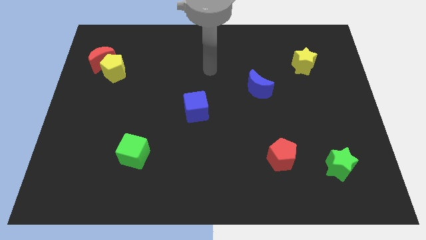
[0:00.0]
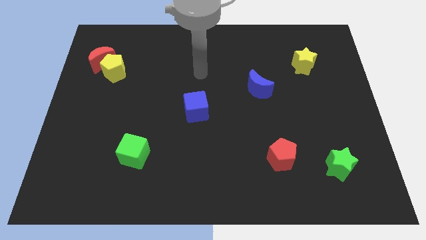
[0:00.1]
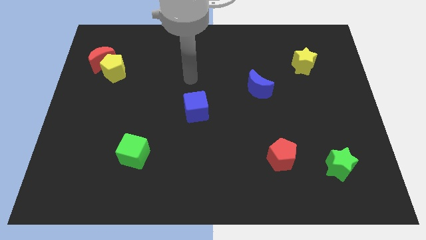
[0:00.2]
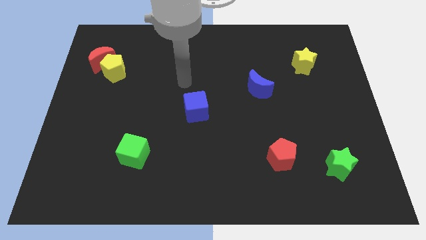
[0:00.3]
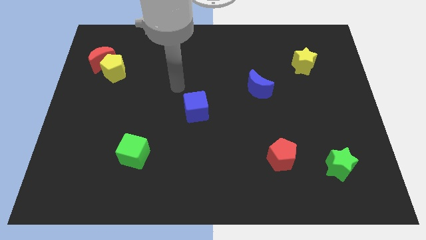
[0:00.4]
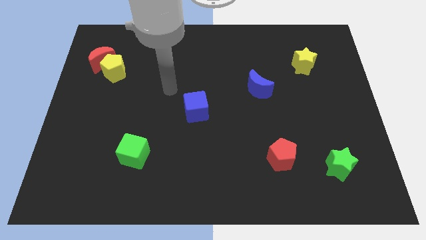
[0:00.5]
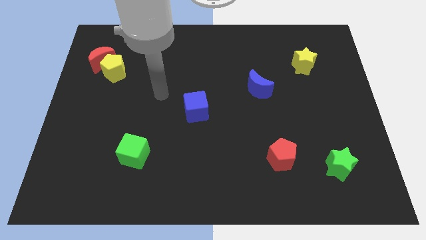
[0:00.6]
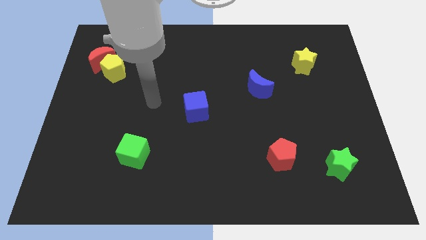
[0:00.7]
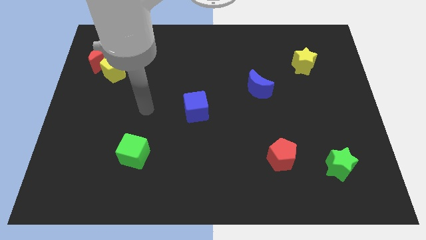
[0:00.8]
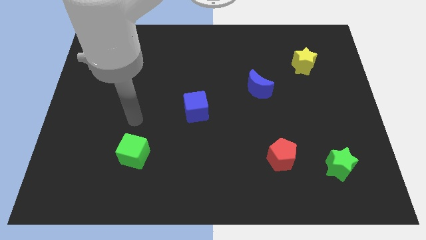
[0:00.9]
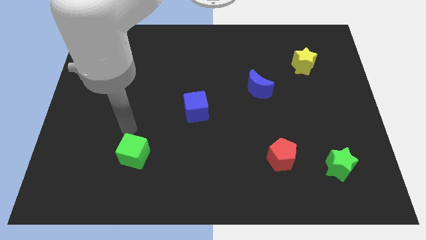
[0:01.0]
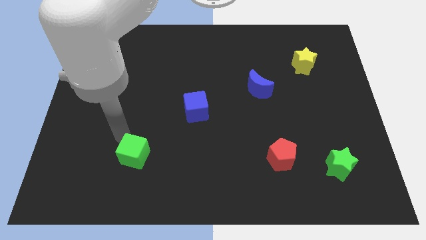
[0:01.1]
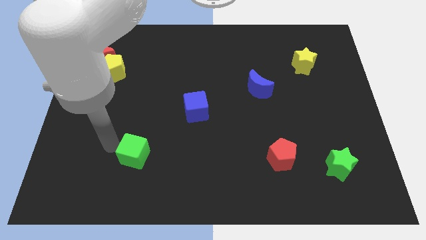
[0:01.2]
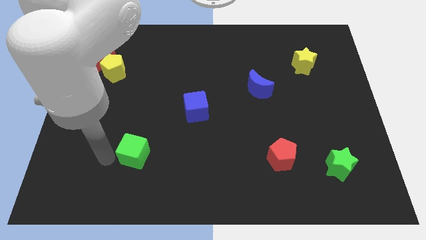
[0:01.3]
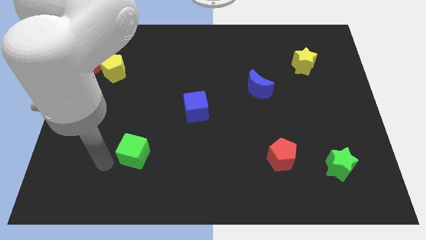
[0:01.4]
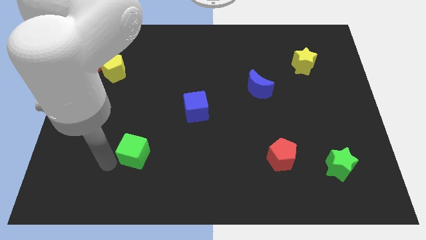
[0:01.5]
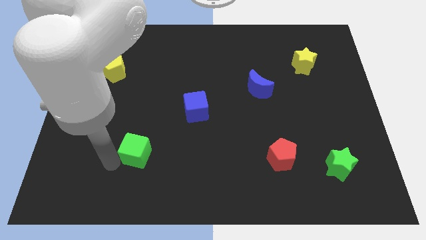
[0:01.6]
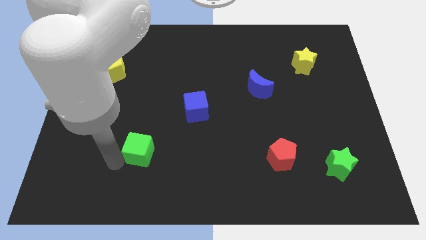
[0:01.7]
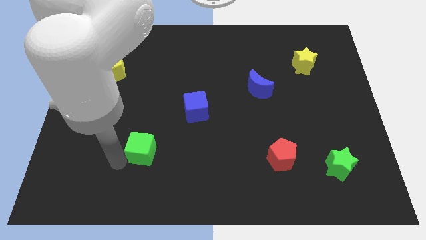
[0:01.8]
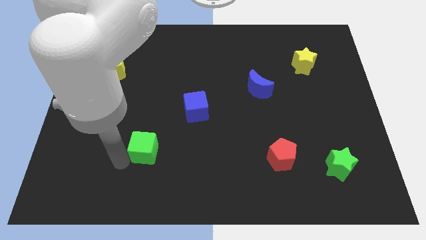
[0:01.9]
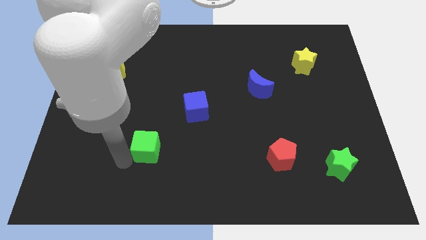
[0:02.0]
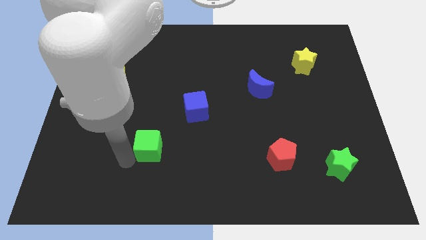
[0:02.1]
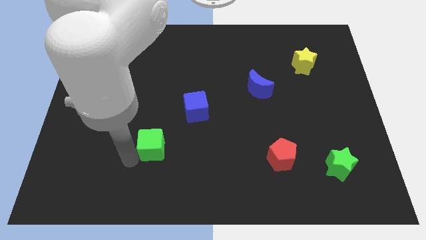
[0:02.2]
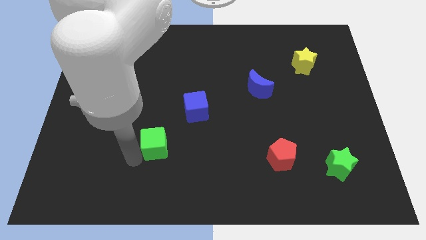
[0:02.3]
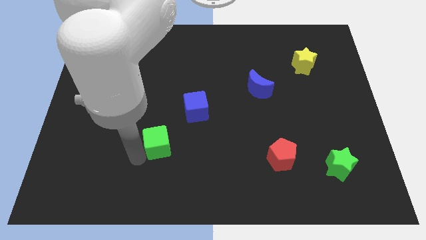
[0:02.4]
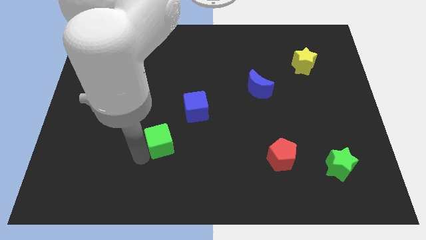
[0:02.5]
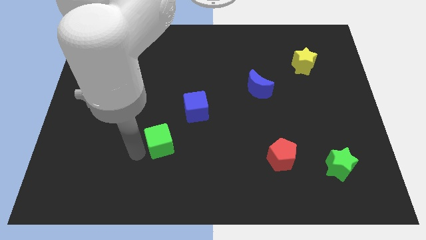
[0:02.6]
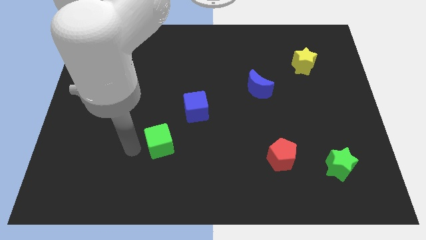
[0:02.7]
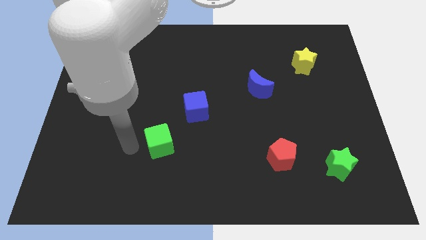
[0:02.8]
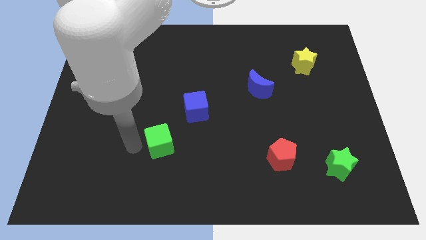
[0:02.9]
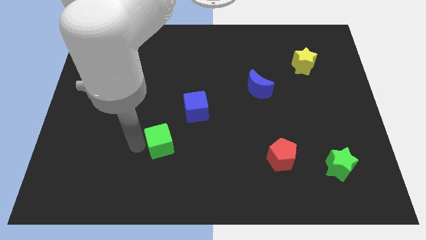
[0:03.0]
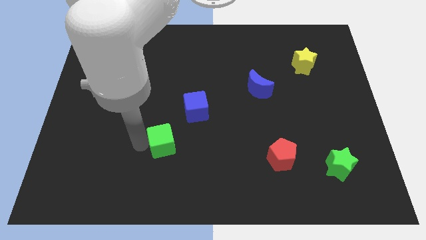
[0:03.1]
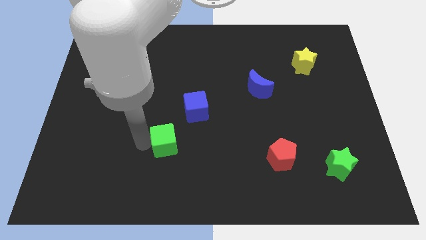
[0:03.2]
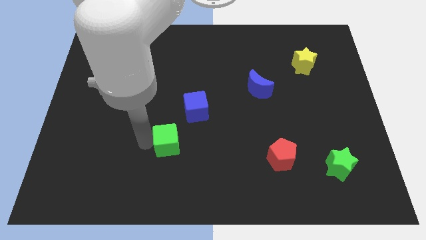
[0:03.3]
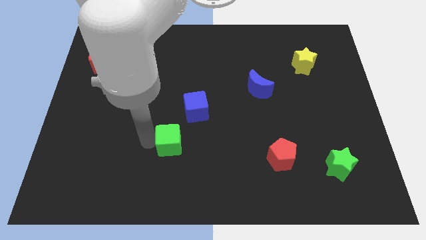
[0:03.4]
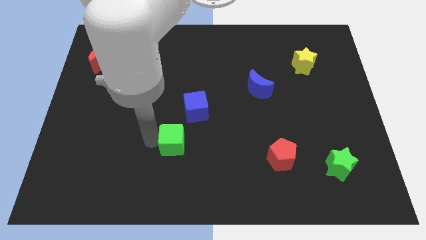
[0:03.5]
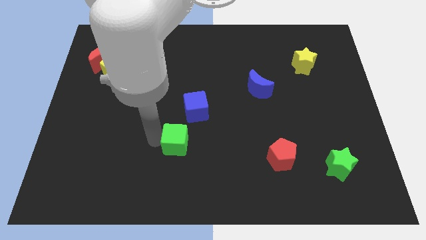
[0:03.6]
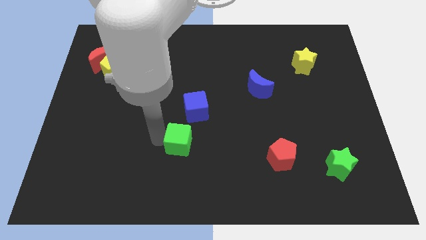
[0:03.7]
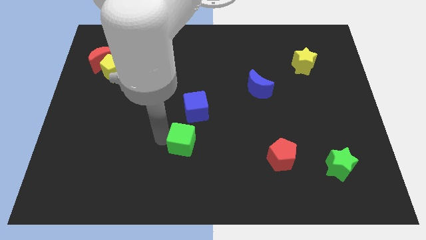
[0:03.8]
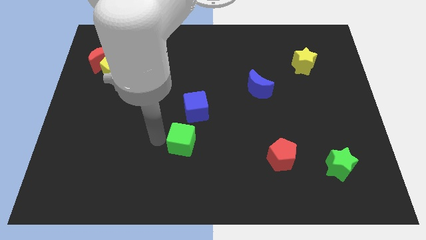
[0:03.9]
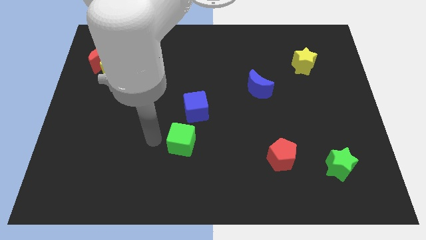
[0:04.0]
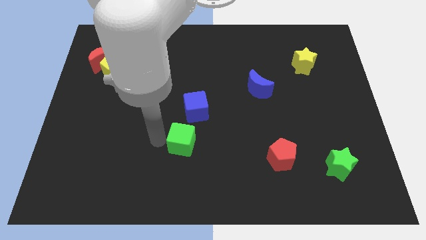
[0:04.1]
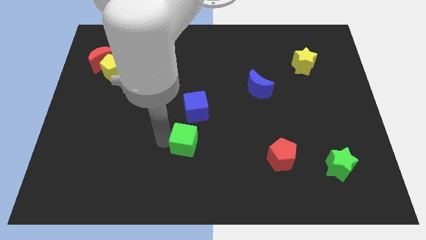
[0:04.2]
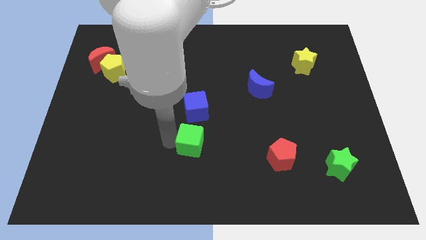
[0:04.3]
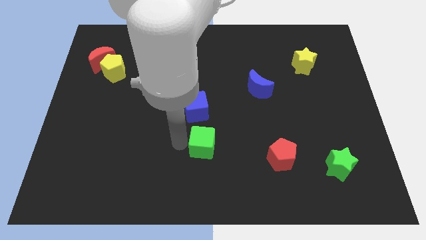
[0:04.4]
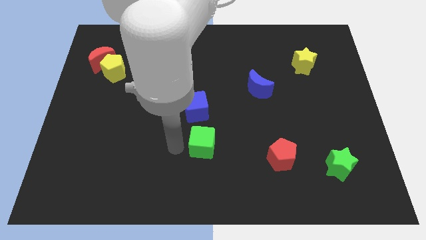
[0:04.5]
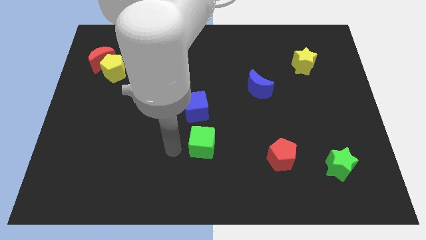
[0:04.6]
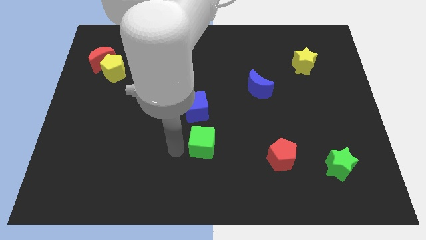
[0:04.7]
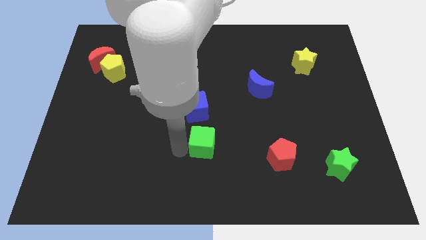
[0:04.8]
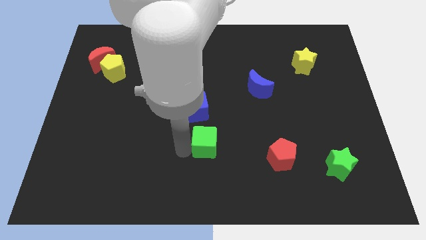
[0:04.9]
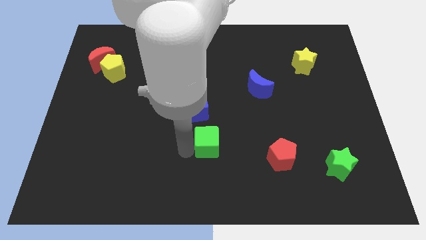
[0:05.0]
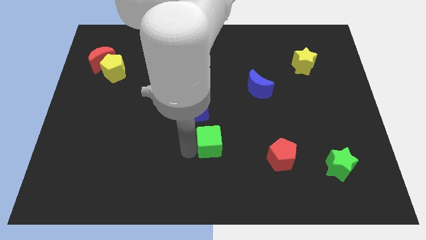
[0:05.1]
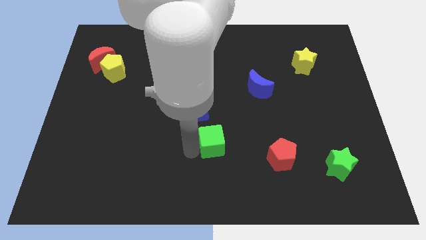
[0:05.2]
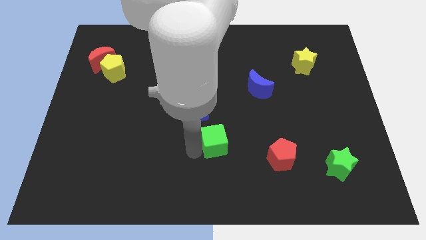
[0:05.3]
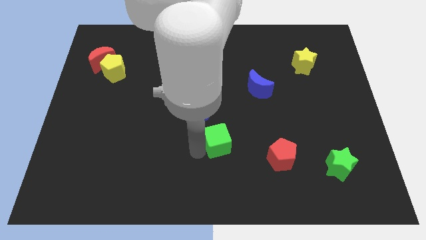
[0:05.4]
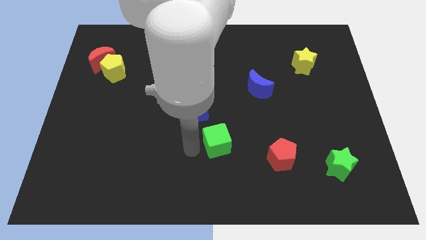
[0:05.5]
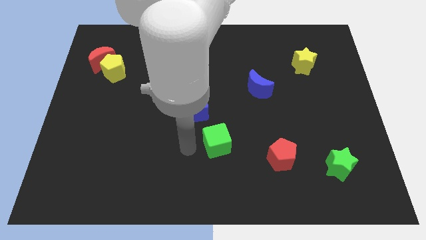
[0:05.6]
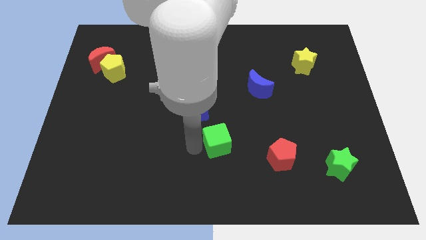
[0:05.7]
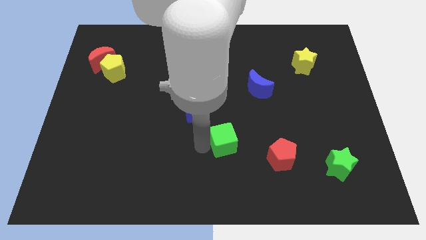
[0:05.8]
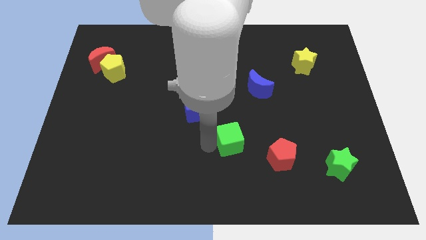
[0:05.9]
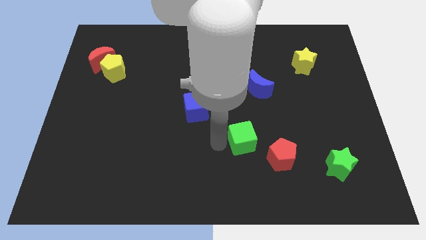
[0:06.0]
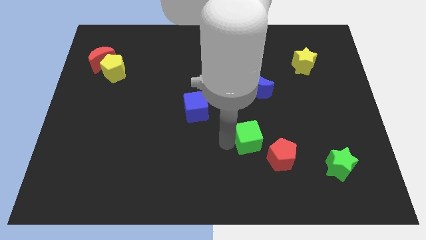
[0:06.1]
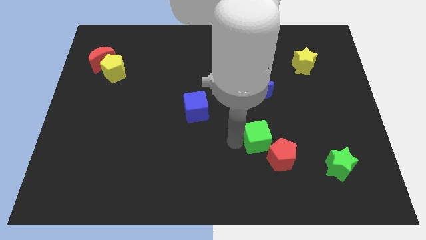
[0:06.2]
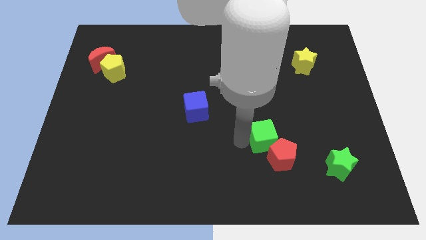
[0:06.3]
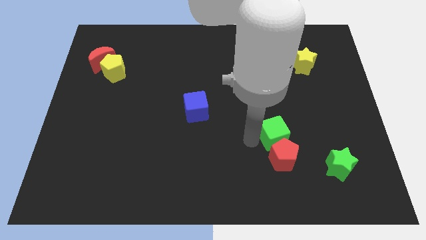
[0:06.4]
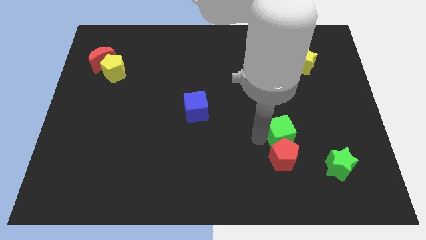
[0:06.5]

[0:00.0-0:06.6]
put the green cube to the top right side of the red pentagon

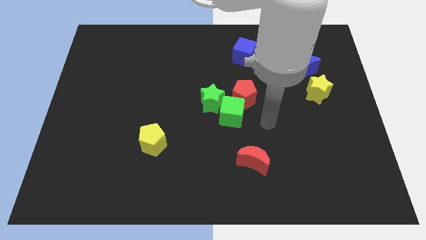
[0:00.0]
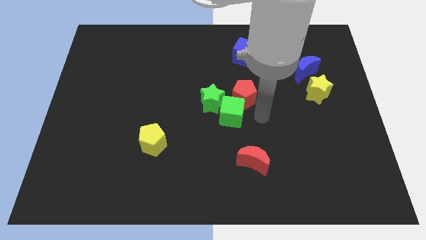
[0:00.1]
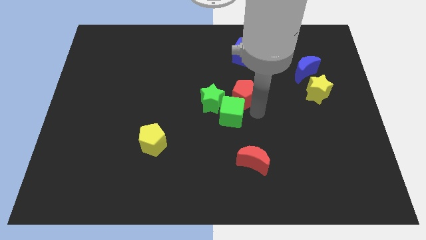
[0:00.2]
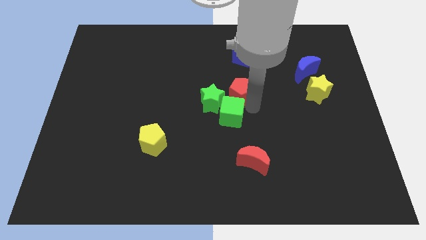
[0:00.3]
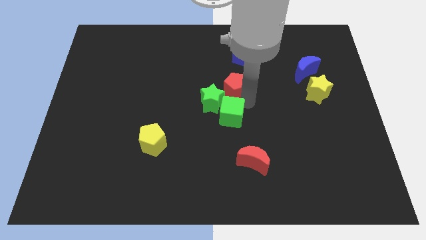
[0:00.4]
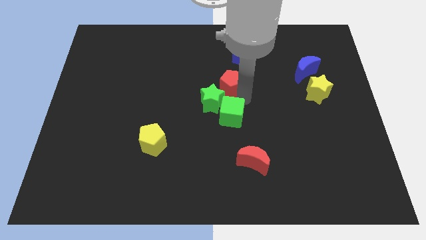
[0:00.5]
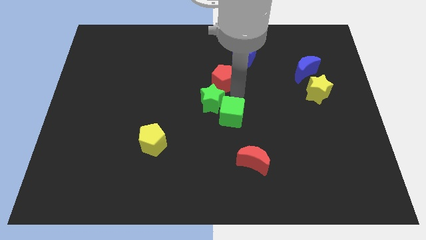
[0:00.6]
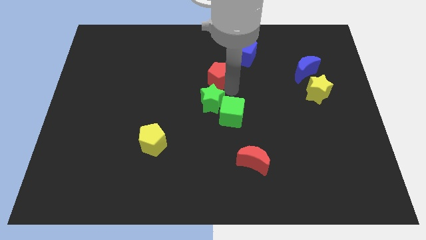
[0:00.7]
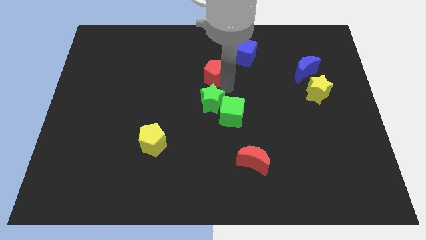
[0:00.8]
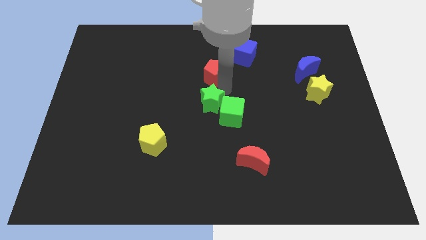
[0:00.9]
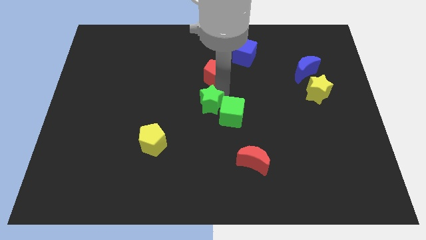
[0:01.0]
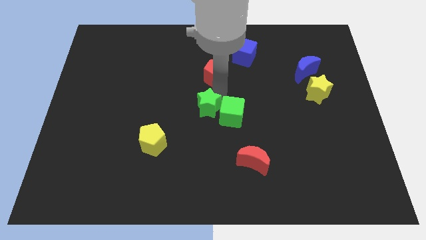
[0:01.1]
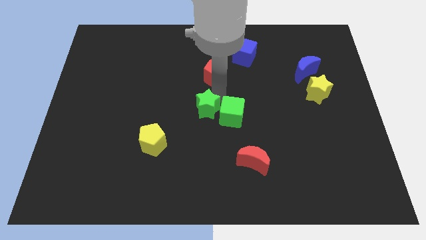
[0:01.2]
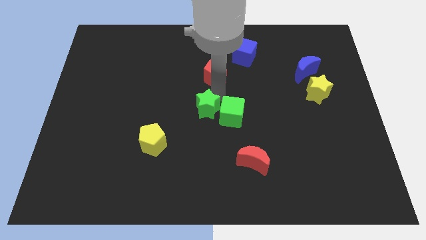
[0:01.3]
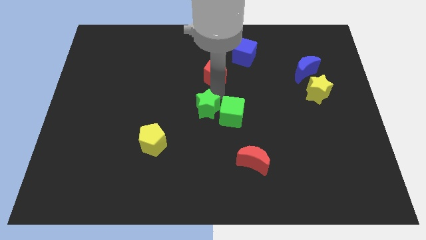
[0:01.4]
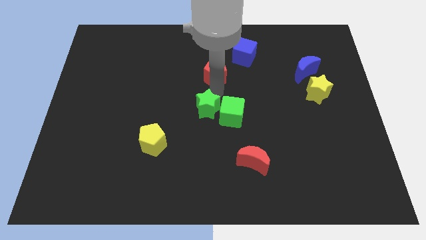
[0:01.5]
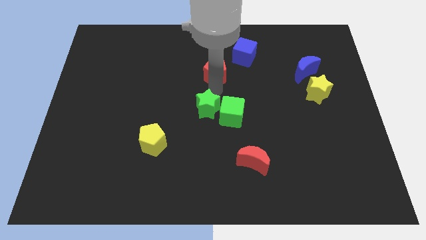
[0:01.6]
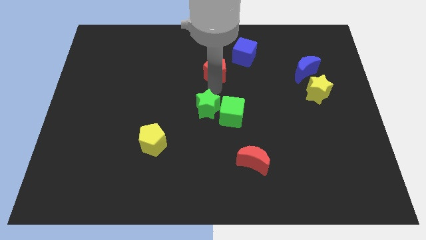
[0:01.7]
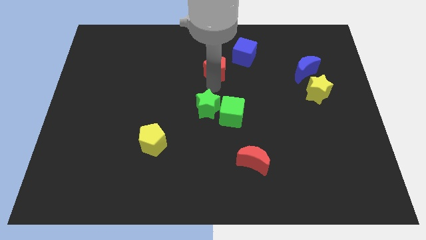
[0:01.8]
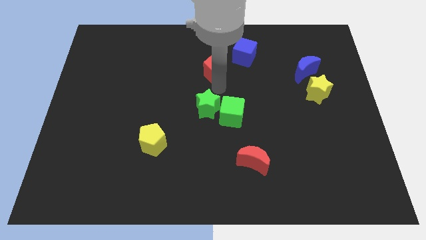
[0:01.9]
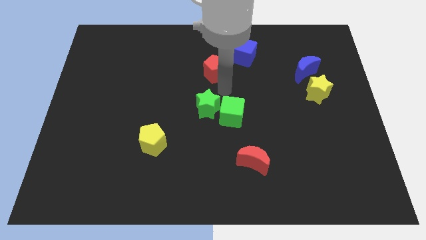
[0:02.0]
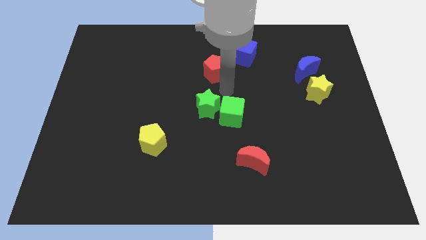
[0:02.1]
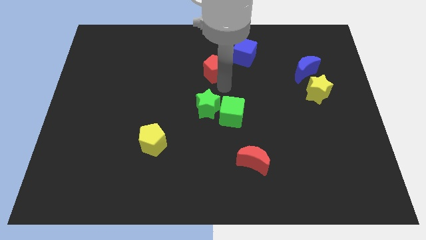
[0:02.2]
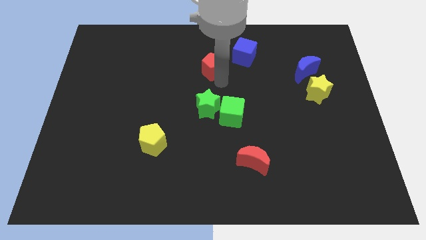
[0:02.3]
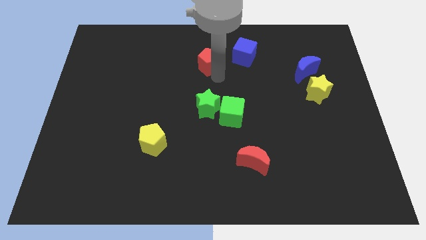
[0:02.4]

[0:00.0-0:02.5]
put the red pentagon just left of the blue cube
